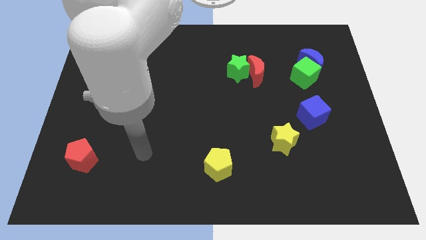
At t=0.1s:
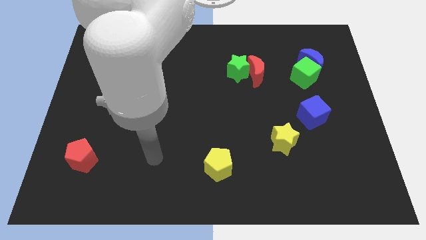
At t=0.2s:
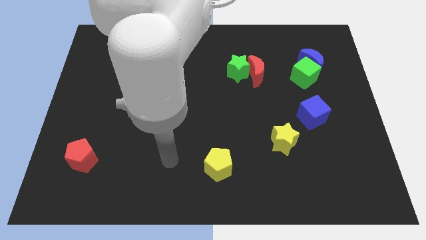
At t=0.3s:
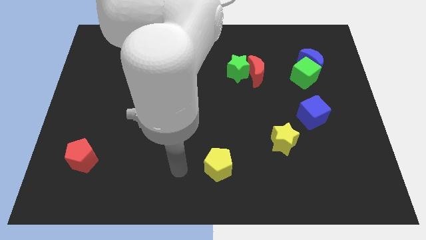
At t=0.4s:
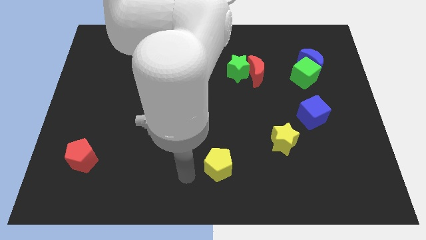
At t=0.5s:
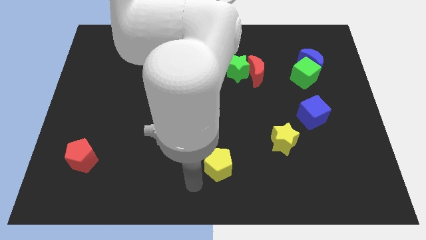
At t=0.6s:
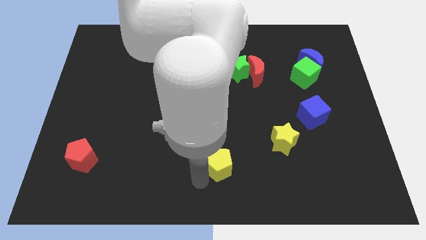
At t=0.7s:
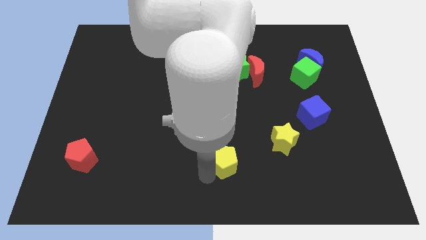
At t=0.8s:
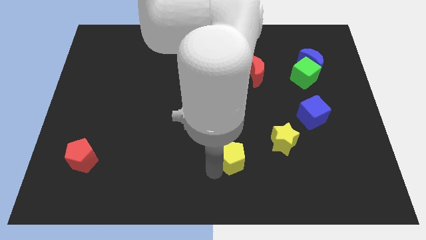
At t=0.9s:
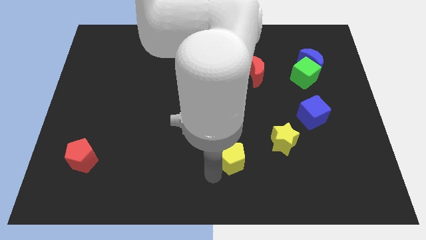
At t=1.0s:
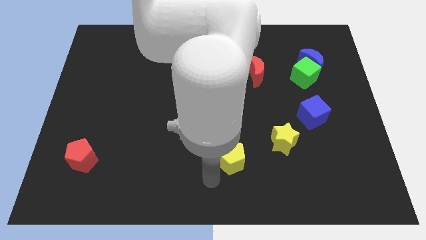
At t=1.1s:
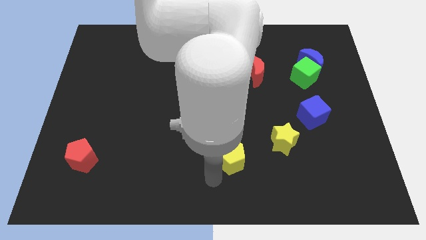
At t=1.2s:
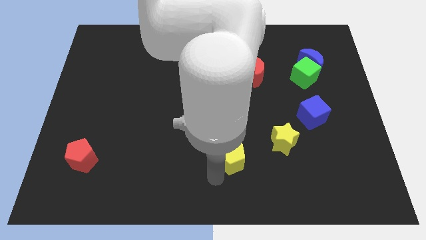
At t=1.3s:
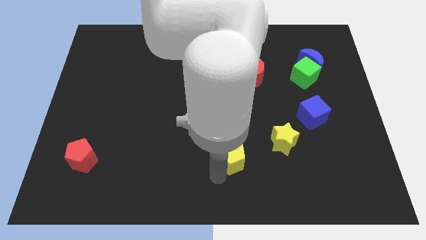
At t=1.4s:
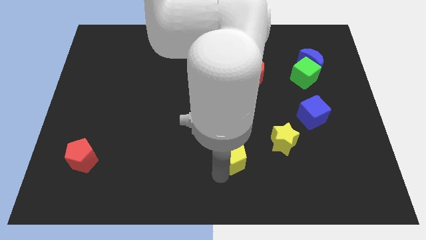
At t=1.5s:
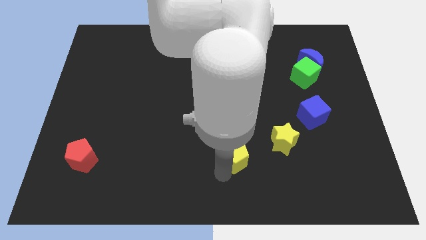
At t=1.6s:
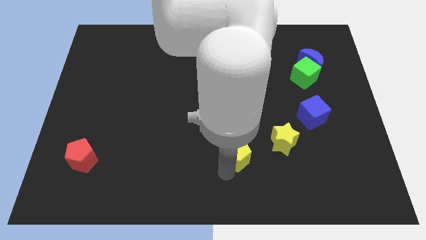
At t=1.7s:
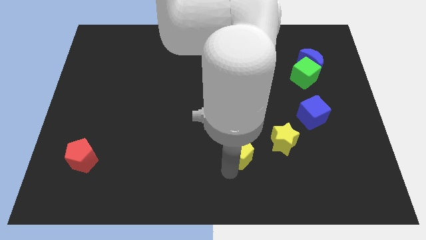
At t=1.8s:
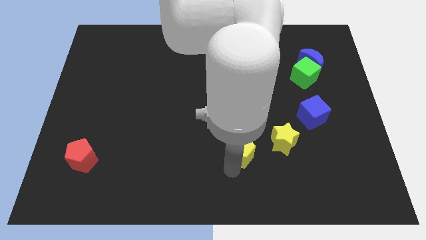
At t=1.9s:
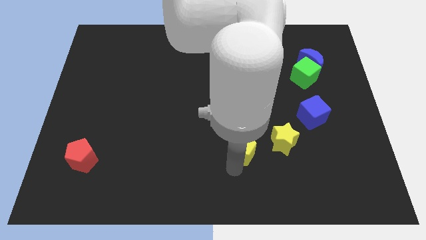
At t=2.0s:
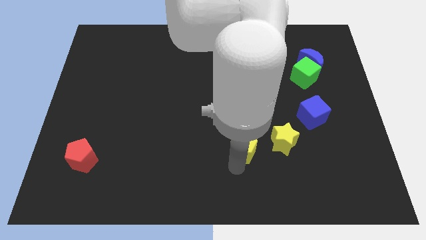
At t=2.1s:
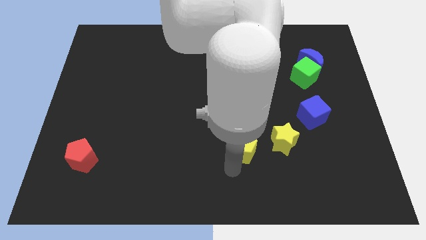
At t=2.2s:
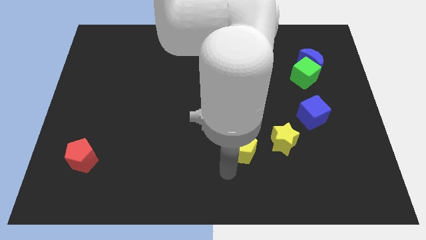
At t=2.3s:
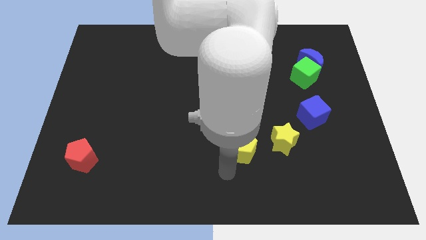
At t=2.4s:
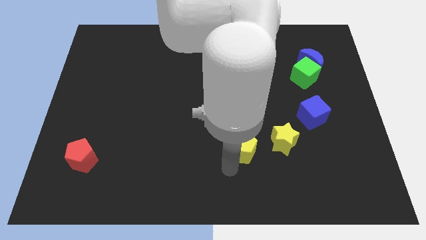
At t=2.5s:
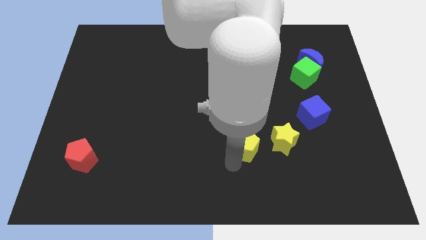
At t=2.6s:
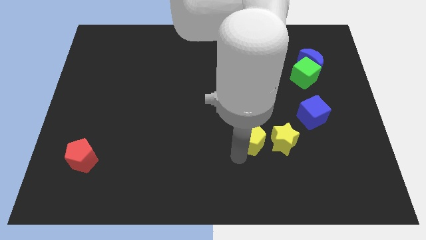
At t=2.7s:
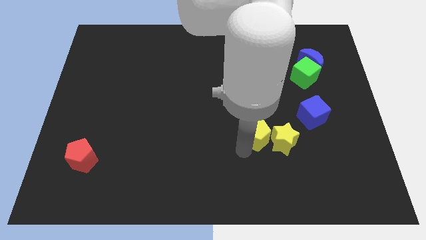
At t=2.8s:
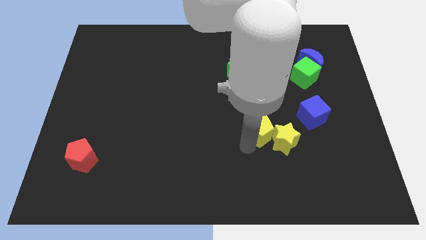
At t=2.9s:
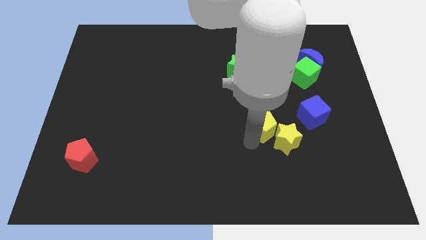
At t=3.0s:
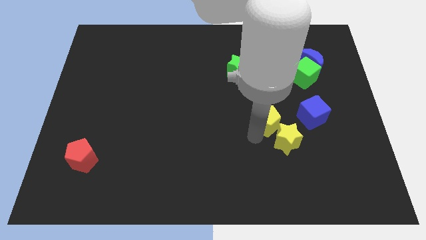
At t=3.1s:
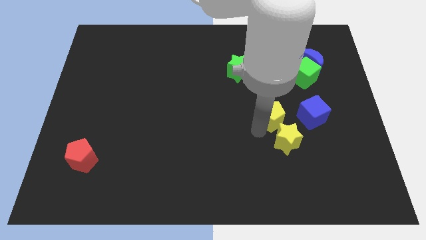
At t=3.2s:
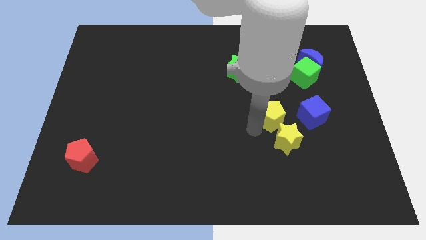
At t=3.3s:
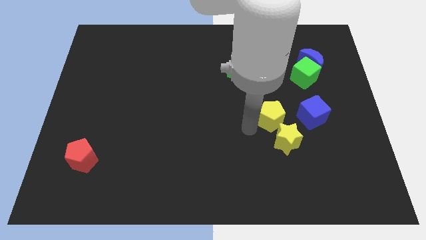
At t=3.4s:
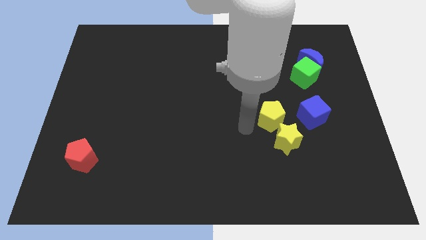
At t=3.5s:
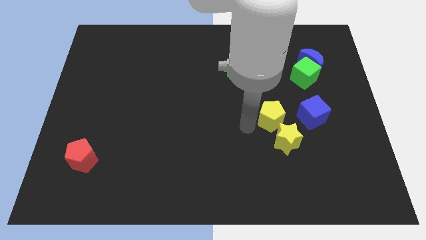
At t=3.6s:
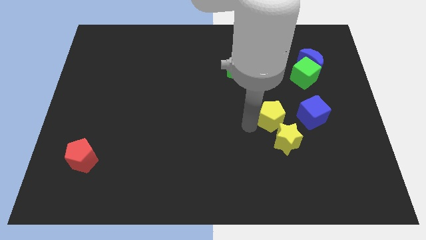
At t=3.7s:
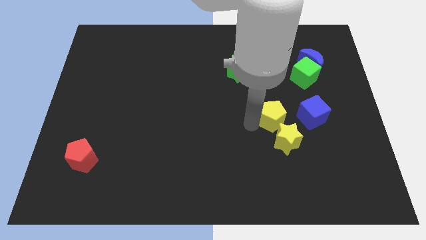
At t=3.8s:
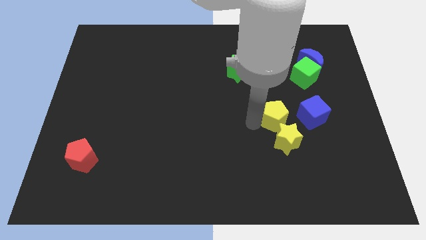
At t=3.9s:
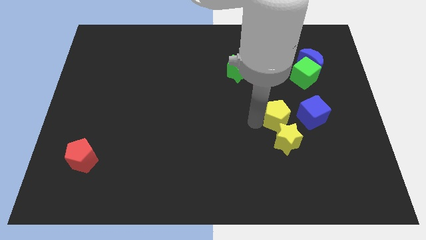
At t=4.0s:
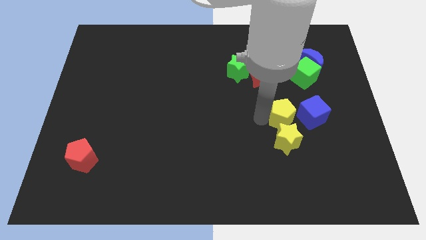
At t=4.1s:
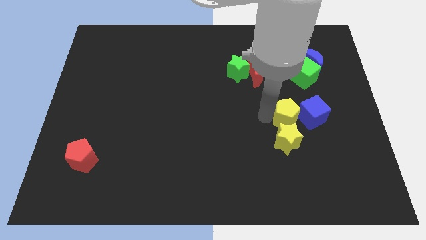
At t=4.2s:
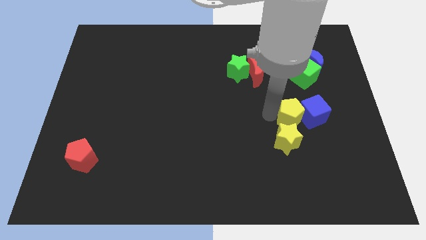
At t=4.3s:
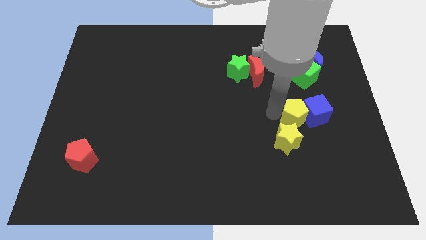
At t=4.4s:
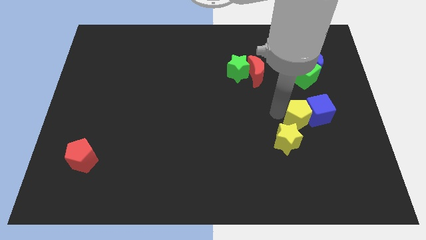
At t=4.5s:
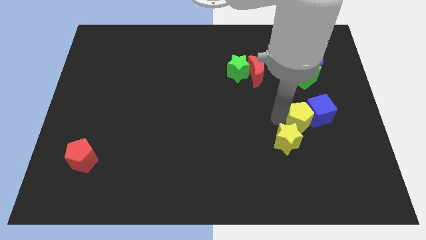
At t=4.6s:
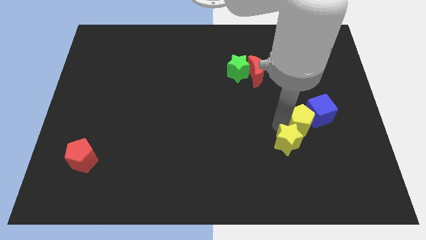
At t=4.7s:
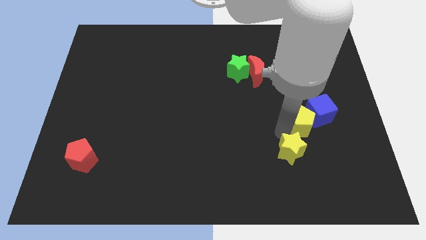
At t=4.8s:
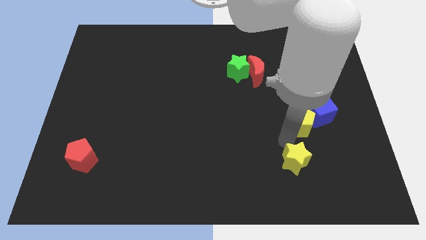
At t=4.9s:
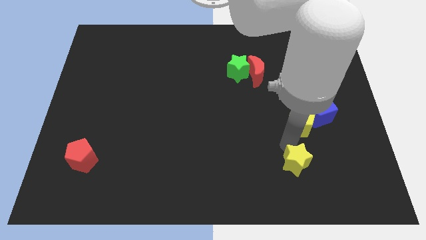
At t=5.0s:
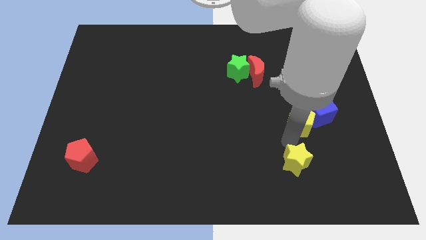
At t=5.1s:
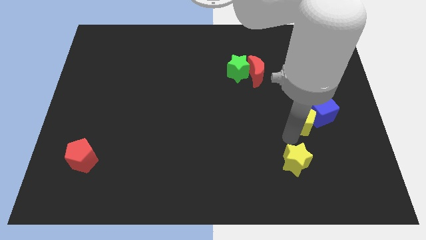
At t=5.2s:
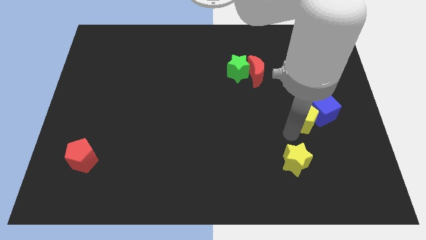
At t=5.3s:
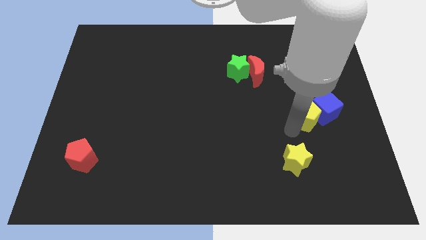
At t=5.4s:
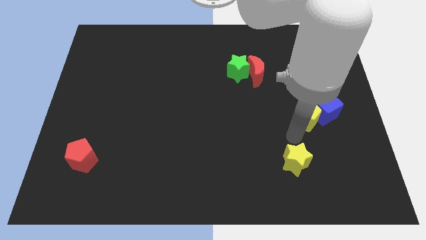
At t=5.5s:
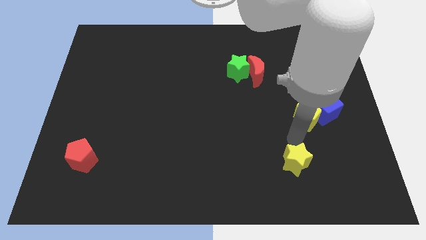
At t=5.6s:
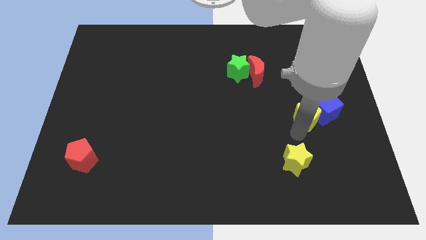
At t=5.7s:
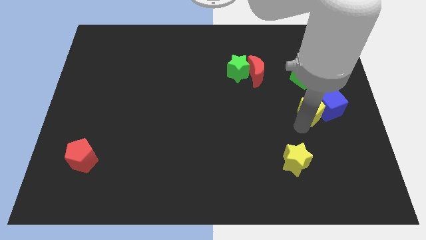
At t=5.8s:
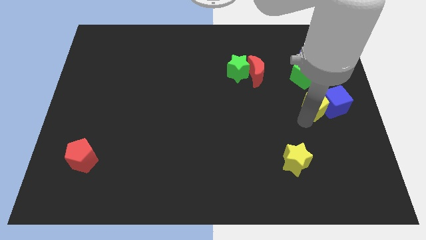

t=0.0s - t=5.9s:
push the yellow pentagon below the blue moon

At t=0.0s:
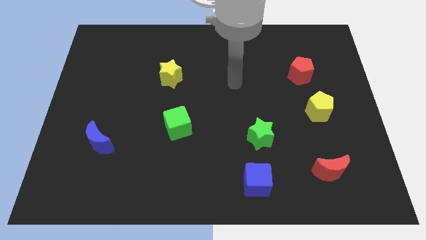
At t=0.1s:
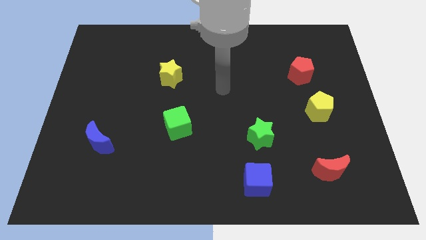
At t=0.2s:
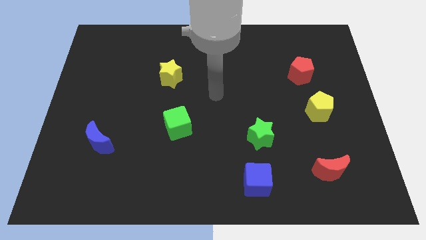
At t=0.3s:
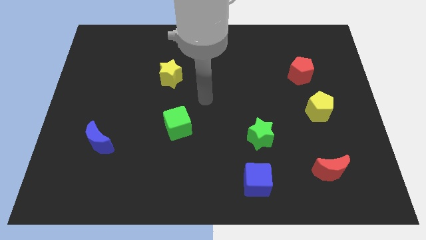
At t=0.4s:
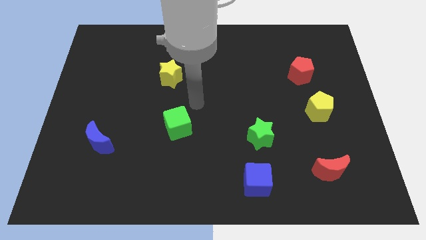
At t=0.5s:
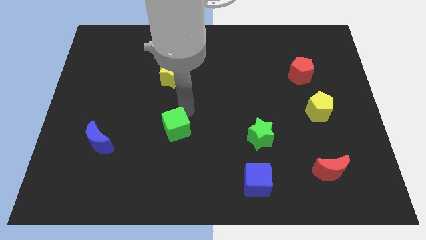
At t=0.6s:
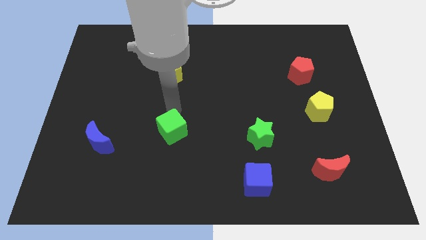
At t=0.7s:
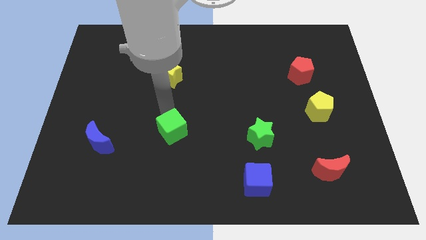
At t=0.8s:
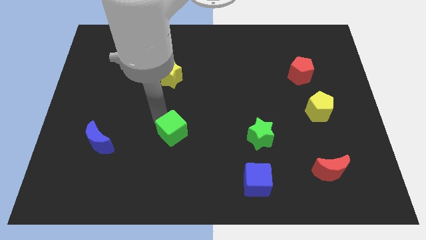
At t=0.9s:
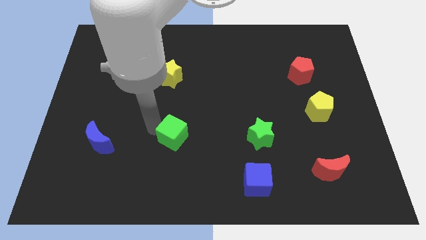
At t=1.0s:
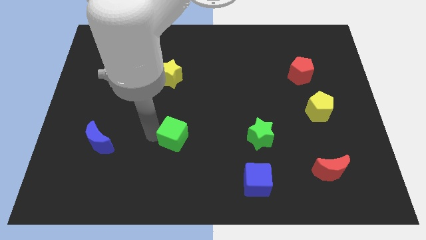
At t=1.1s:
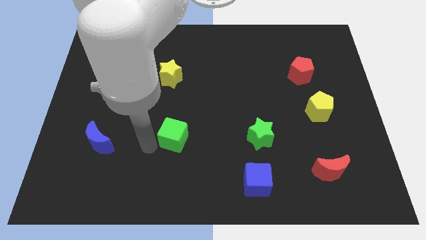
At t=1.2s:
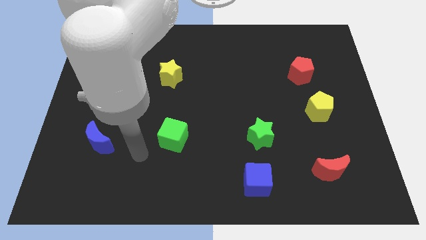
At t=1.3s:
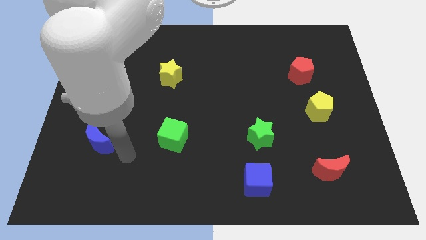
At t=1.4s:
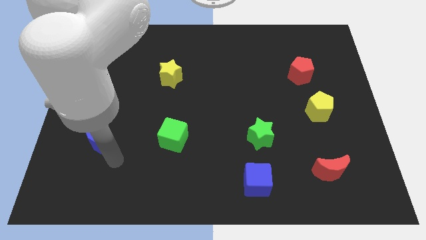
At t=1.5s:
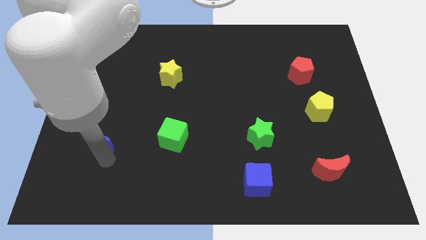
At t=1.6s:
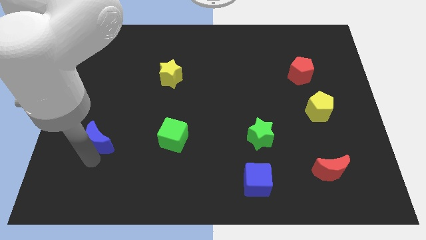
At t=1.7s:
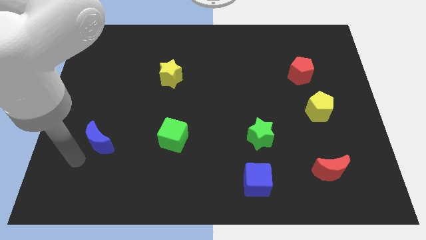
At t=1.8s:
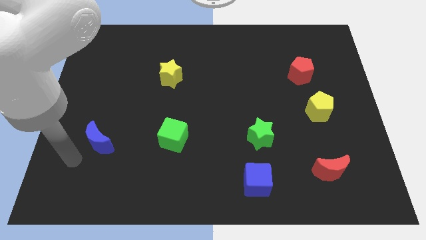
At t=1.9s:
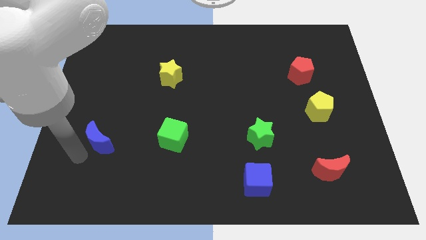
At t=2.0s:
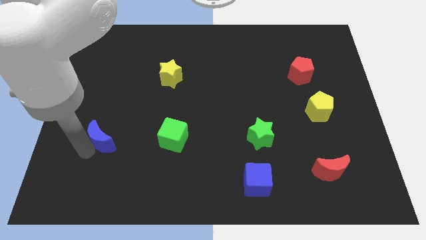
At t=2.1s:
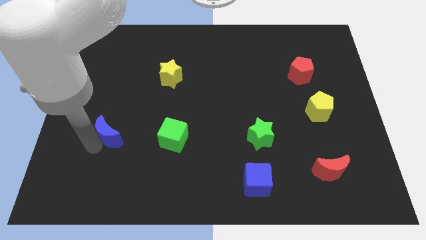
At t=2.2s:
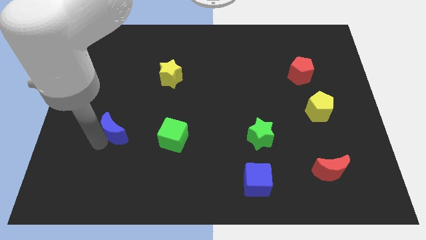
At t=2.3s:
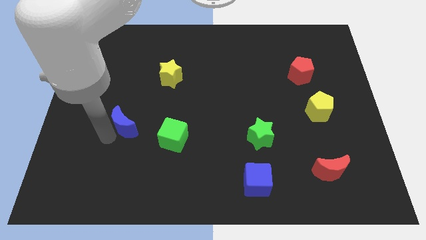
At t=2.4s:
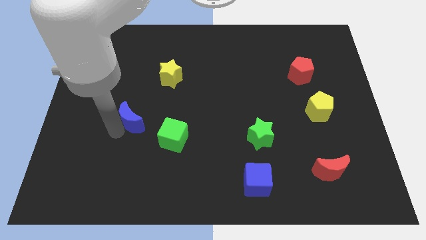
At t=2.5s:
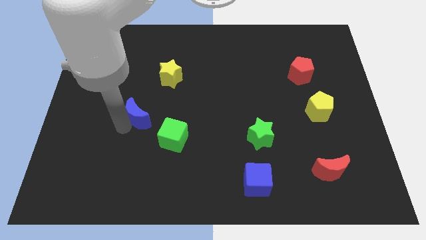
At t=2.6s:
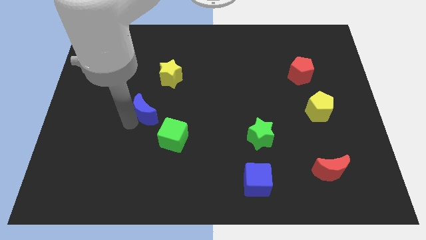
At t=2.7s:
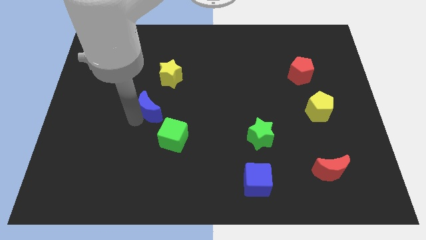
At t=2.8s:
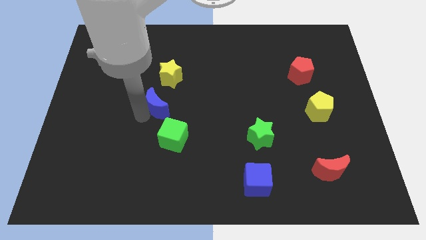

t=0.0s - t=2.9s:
put the blue moon to the top of the green cube
